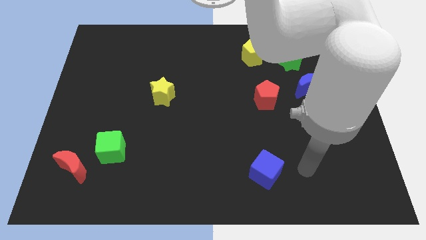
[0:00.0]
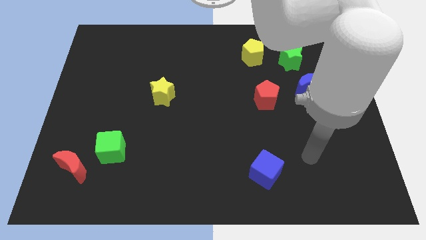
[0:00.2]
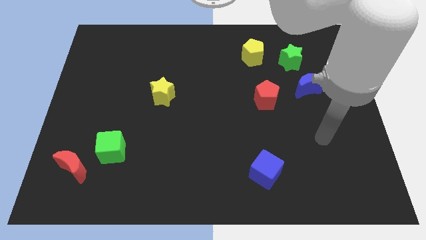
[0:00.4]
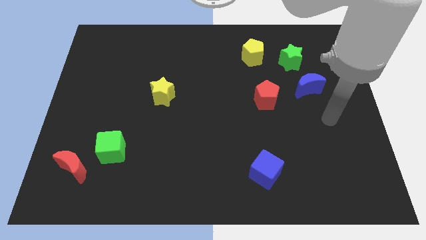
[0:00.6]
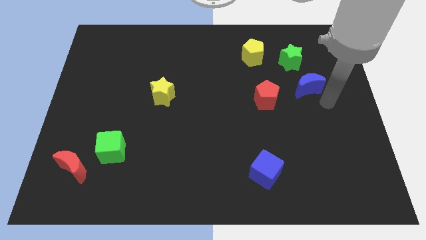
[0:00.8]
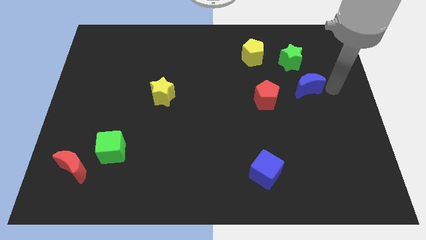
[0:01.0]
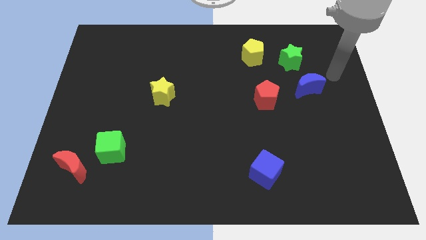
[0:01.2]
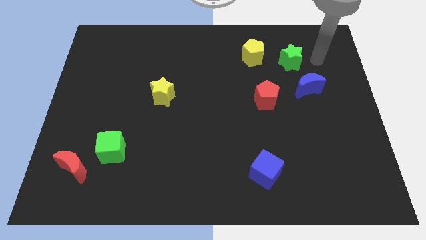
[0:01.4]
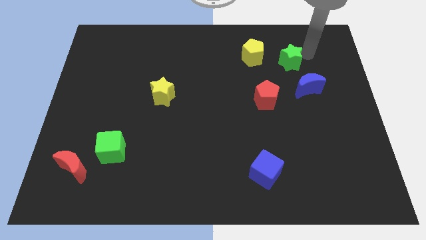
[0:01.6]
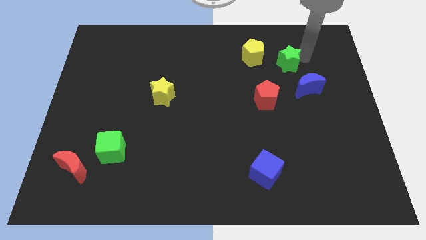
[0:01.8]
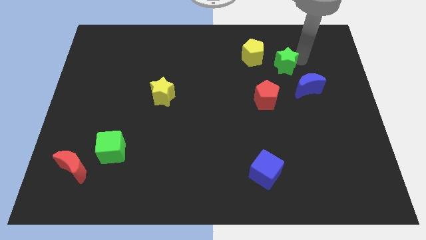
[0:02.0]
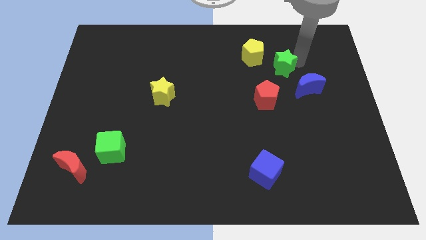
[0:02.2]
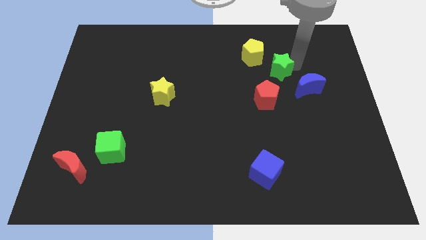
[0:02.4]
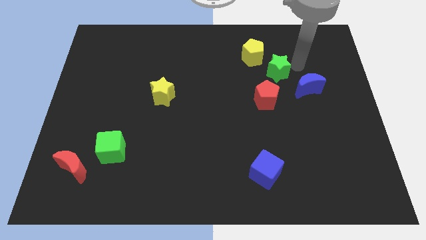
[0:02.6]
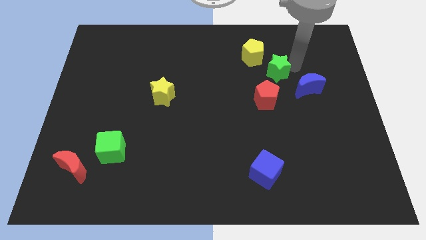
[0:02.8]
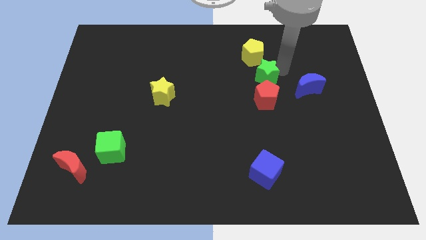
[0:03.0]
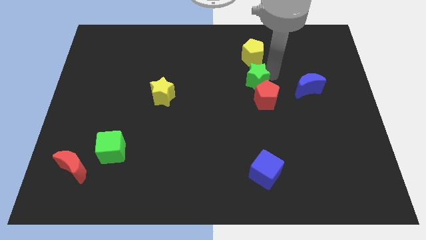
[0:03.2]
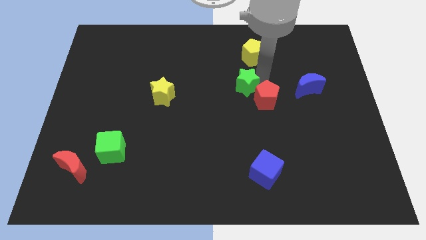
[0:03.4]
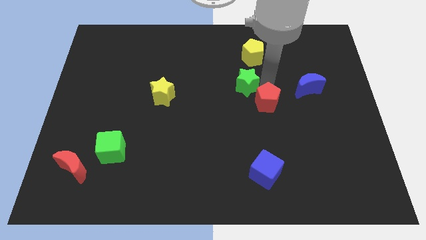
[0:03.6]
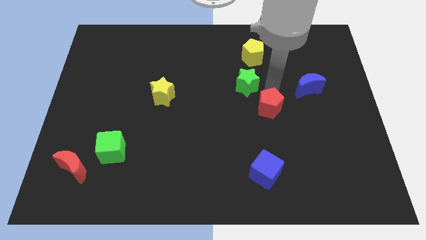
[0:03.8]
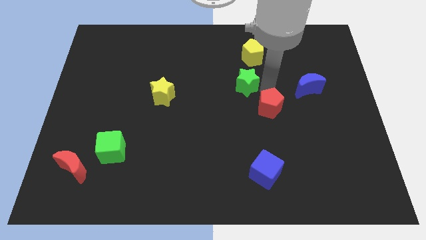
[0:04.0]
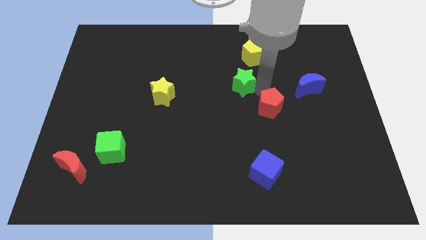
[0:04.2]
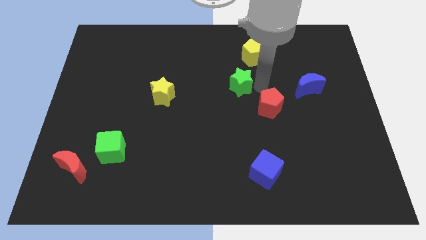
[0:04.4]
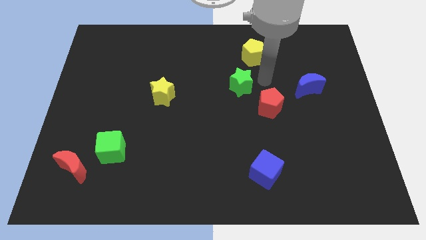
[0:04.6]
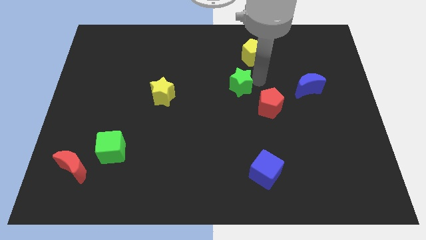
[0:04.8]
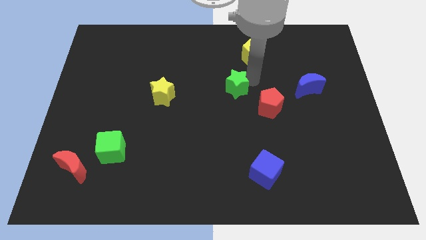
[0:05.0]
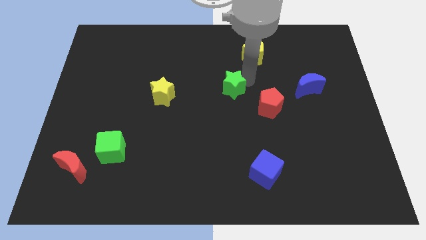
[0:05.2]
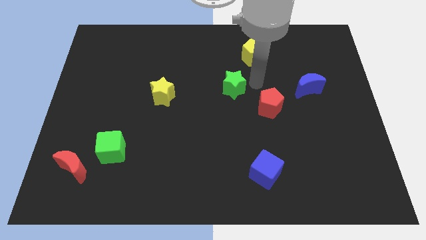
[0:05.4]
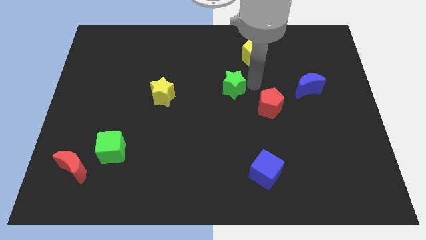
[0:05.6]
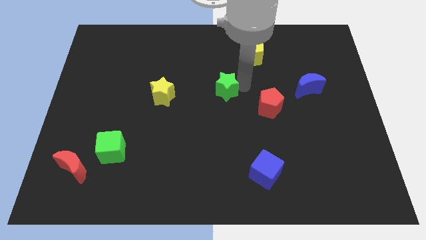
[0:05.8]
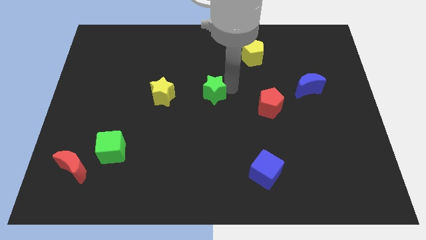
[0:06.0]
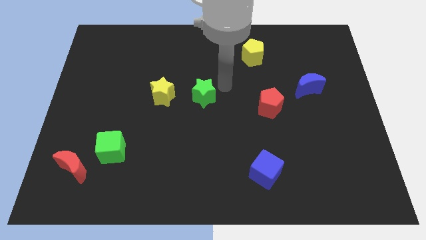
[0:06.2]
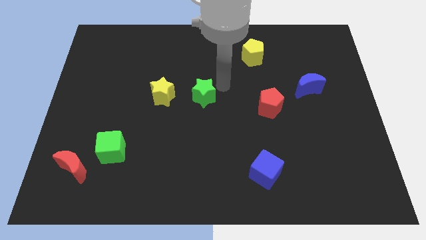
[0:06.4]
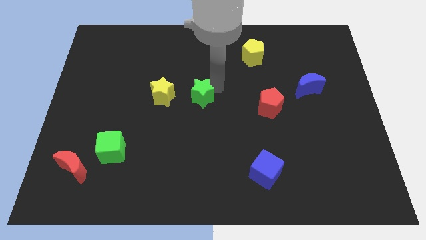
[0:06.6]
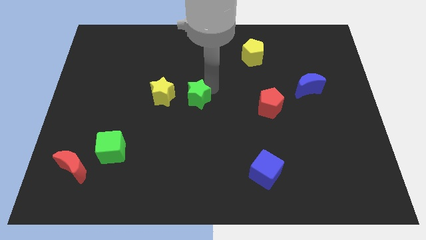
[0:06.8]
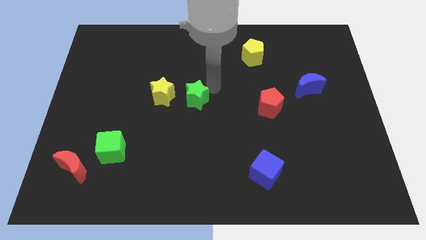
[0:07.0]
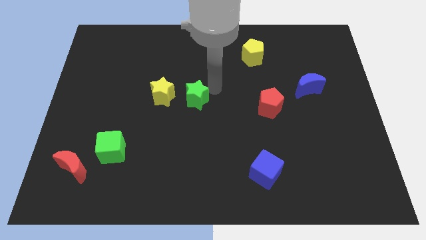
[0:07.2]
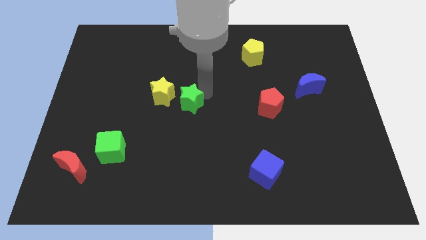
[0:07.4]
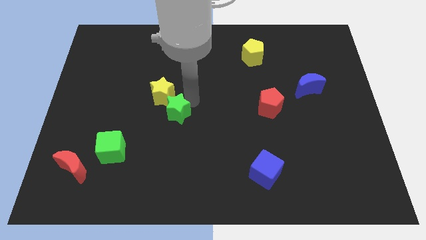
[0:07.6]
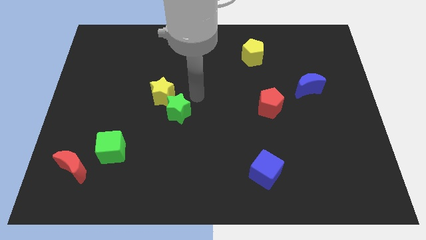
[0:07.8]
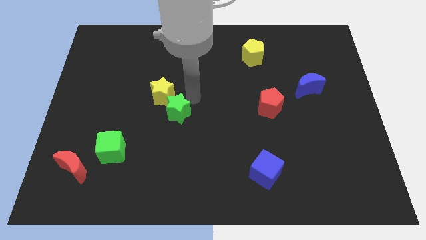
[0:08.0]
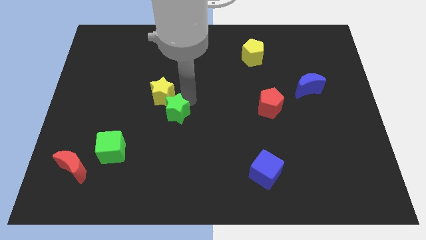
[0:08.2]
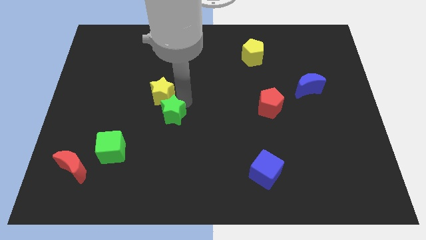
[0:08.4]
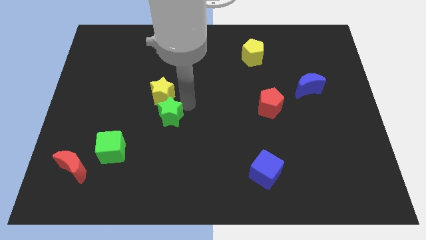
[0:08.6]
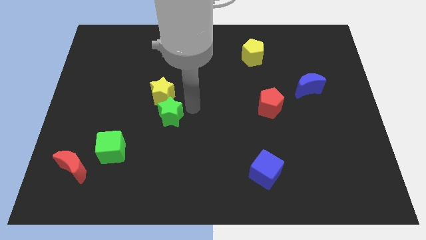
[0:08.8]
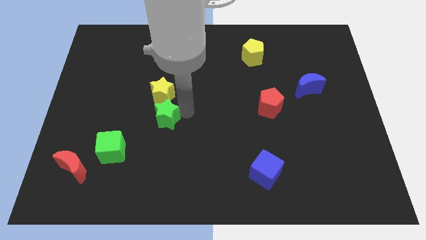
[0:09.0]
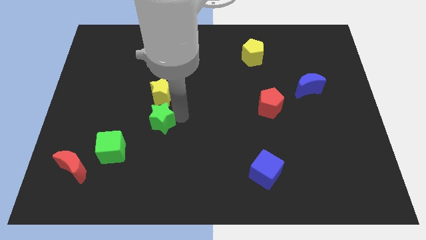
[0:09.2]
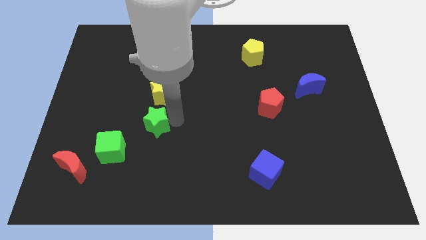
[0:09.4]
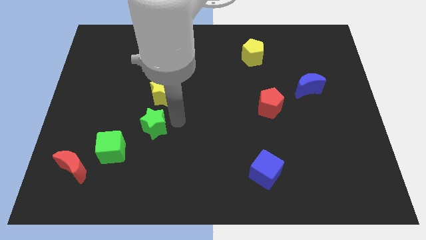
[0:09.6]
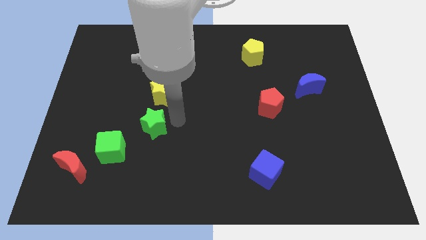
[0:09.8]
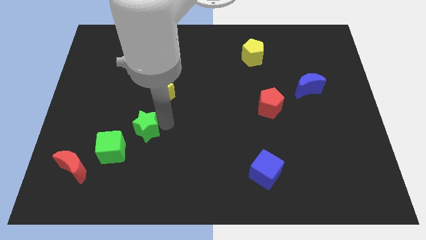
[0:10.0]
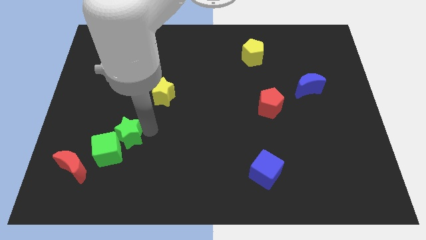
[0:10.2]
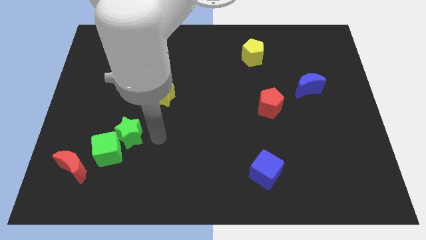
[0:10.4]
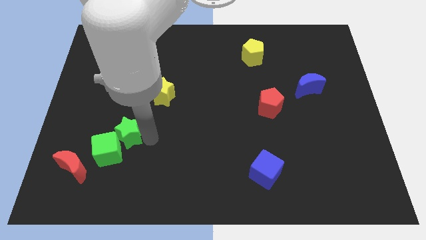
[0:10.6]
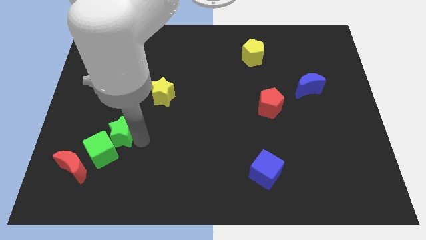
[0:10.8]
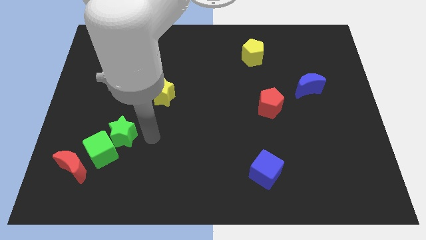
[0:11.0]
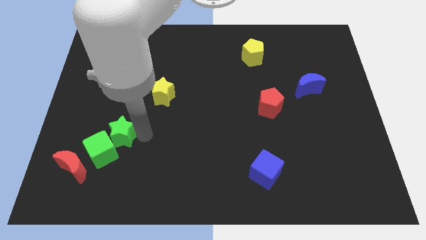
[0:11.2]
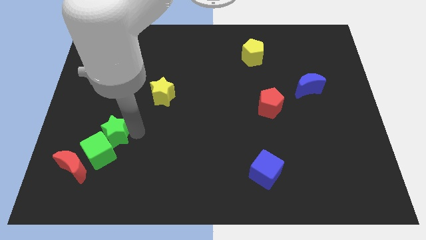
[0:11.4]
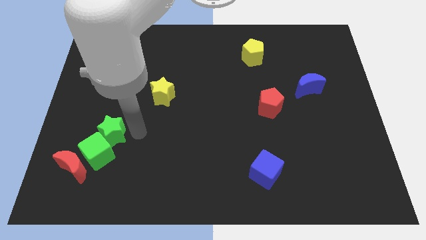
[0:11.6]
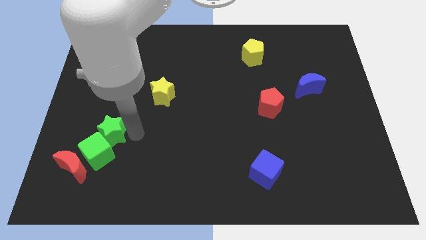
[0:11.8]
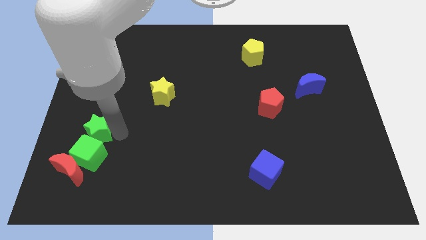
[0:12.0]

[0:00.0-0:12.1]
put the green star to the top left side of the green cube

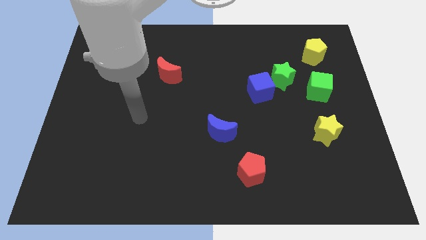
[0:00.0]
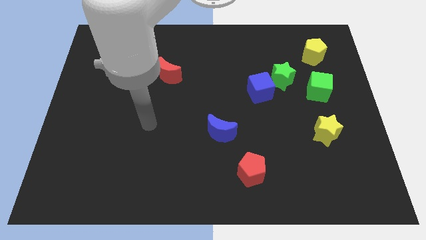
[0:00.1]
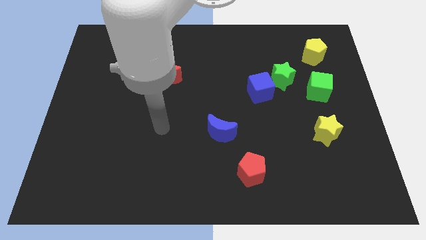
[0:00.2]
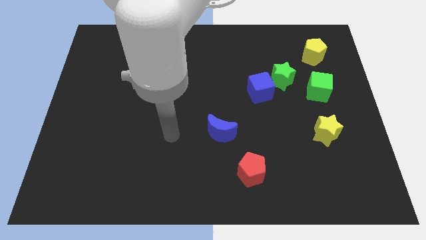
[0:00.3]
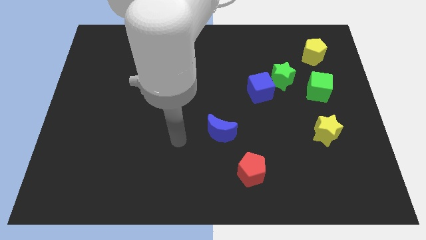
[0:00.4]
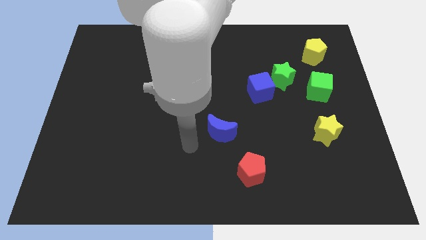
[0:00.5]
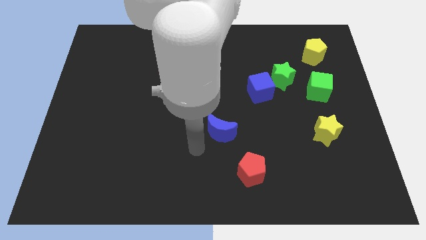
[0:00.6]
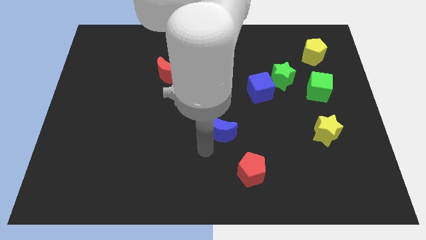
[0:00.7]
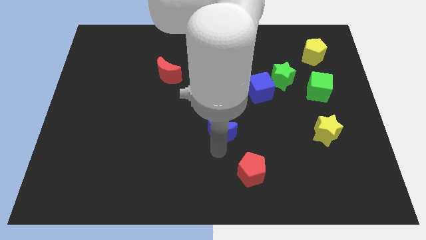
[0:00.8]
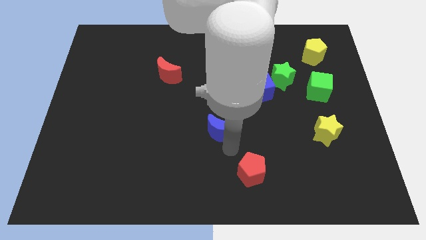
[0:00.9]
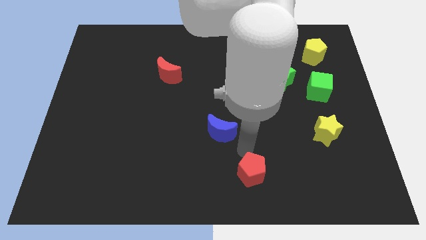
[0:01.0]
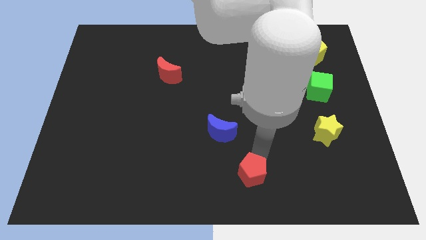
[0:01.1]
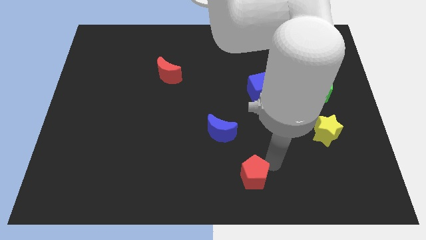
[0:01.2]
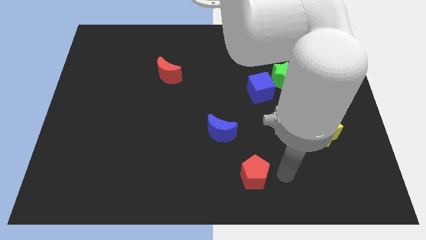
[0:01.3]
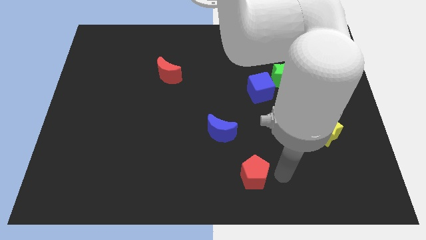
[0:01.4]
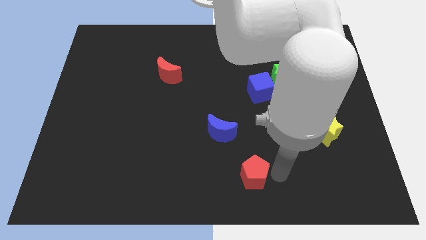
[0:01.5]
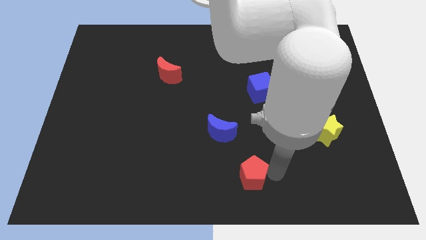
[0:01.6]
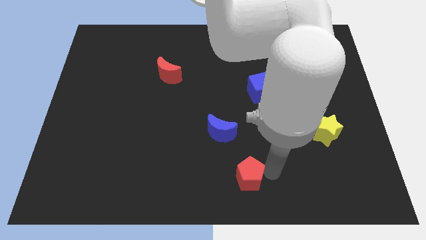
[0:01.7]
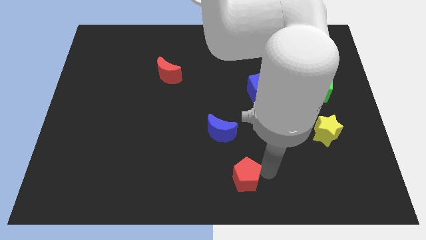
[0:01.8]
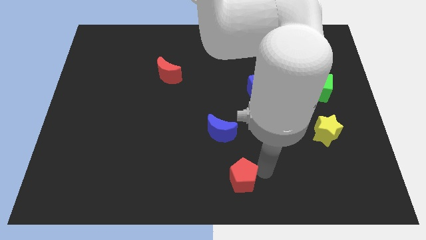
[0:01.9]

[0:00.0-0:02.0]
push the red pentagon below the blue moon
